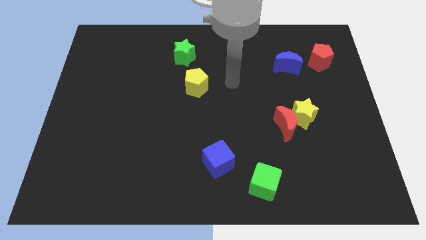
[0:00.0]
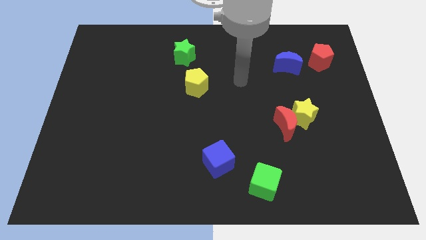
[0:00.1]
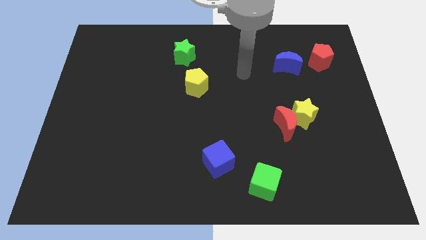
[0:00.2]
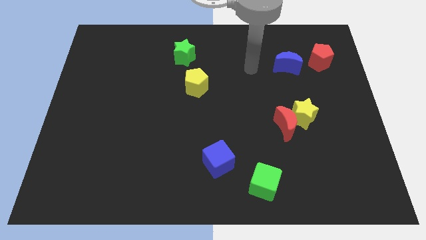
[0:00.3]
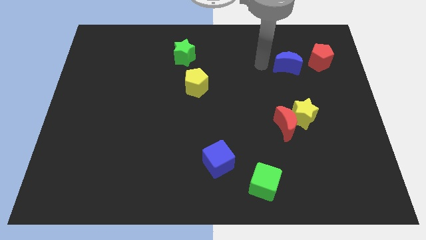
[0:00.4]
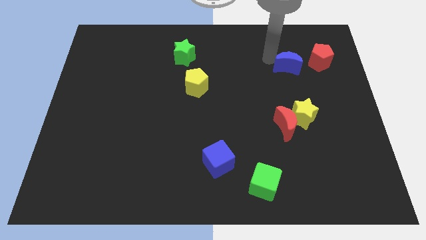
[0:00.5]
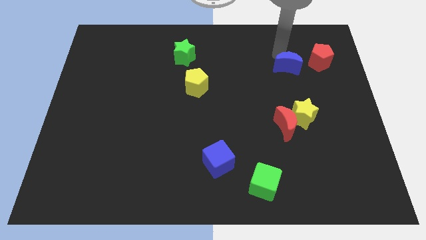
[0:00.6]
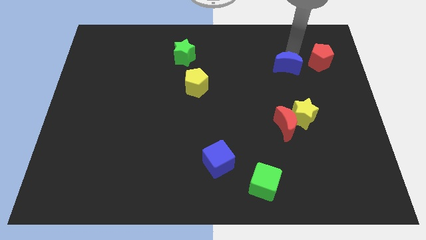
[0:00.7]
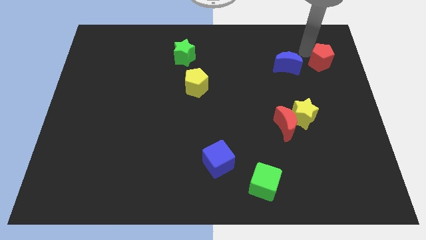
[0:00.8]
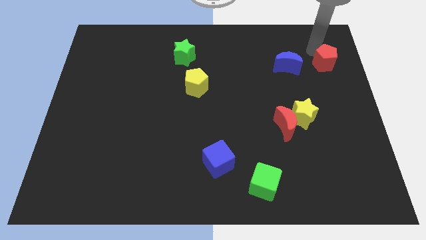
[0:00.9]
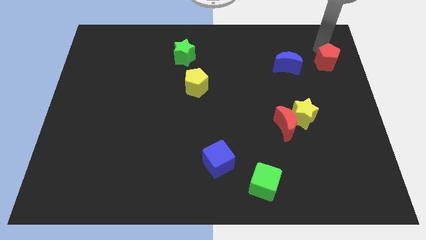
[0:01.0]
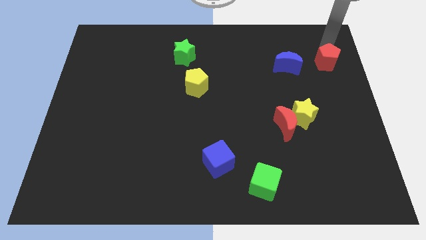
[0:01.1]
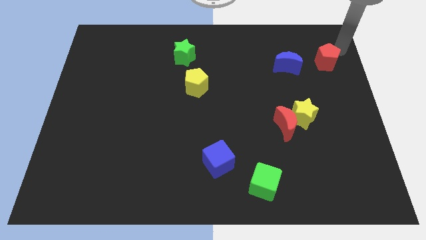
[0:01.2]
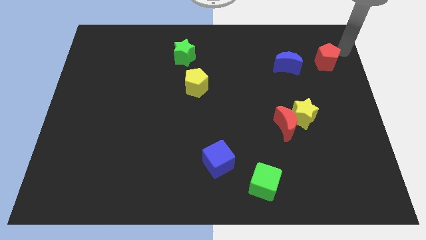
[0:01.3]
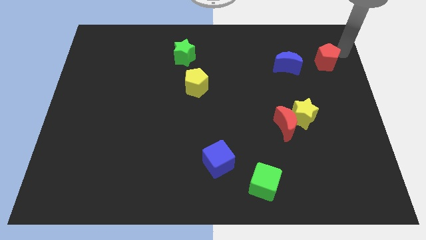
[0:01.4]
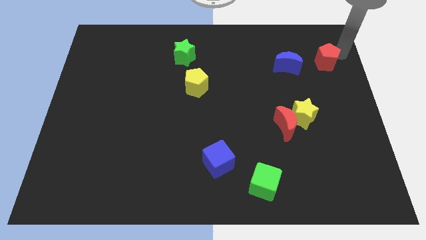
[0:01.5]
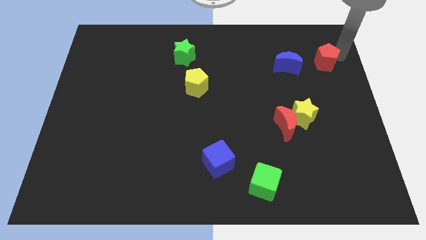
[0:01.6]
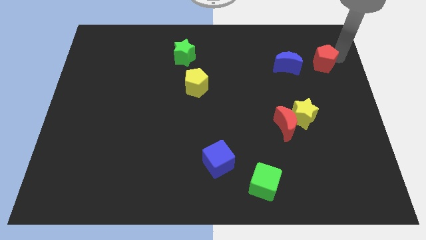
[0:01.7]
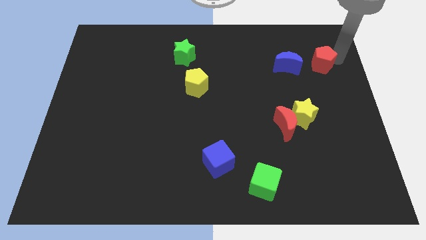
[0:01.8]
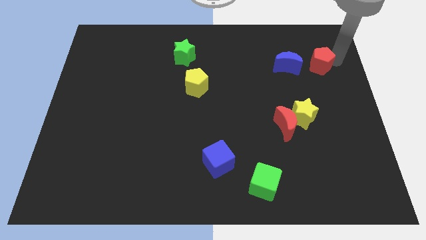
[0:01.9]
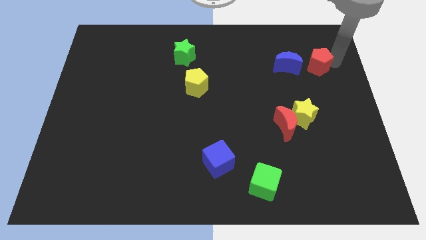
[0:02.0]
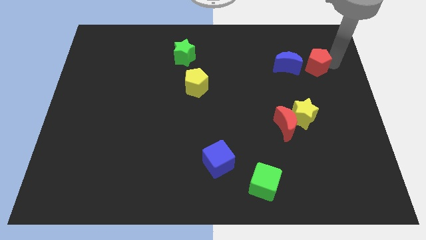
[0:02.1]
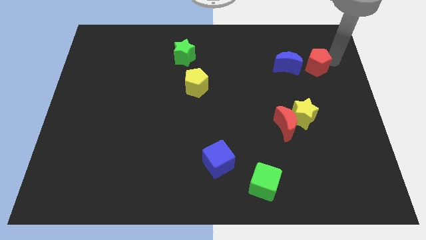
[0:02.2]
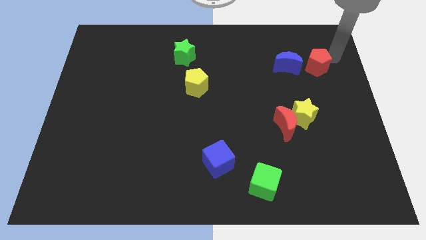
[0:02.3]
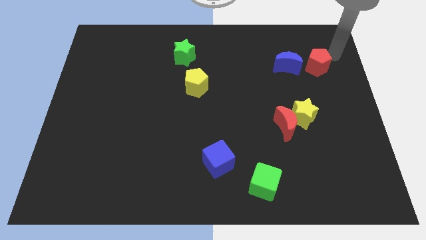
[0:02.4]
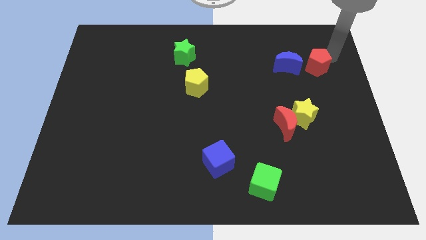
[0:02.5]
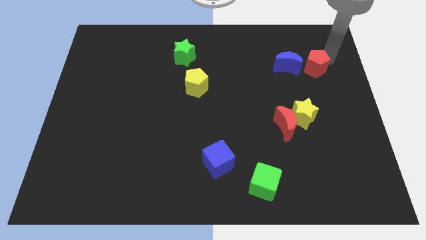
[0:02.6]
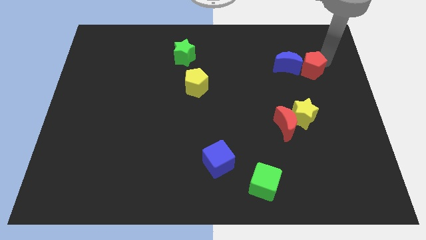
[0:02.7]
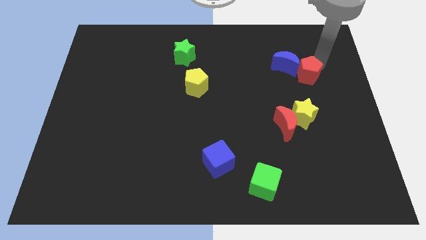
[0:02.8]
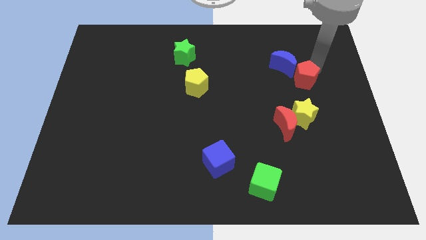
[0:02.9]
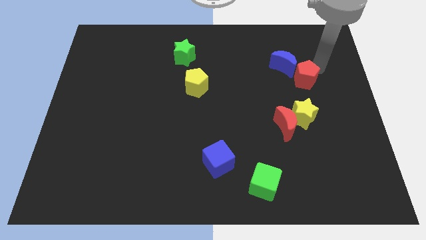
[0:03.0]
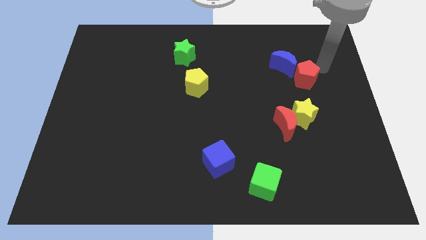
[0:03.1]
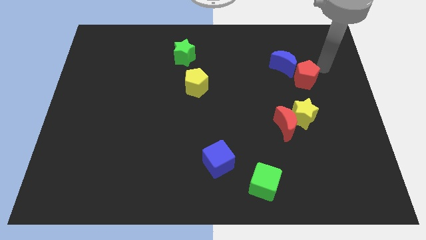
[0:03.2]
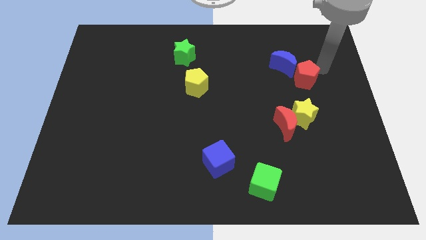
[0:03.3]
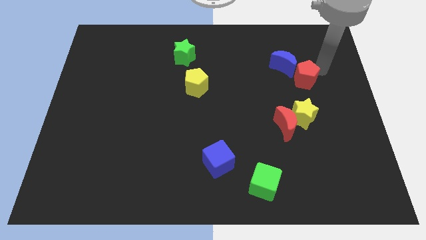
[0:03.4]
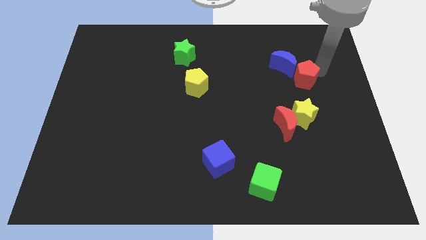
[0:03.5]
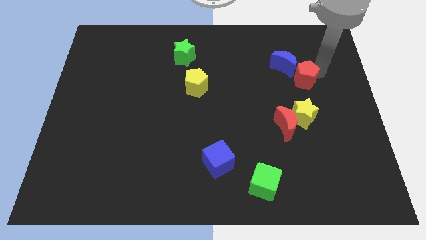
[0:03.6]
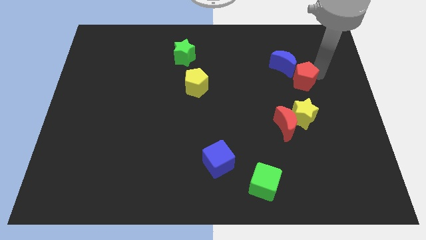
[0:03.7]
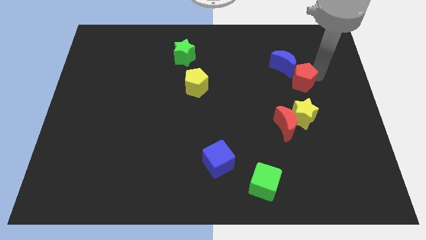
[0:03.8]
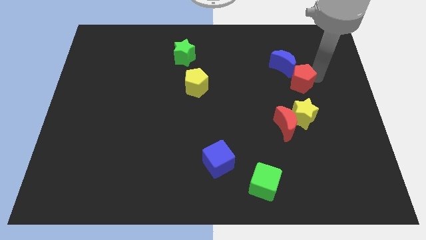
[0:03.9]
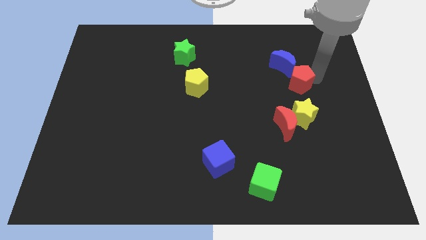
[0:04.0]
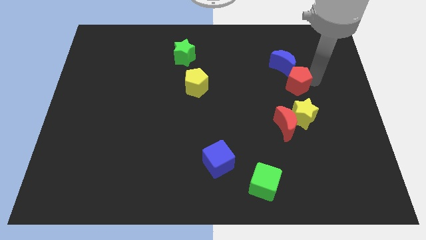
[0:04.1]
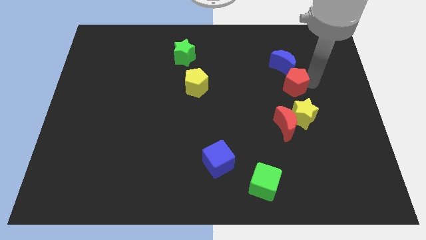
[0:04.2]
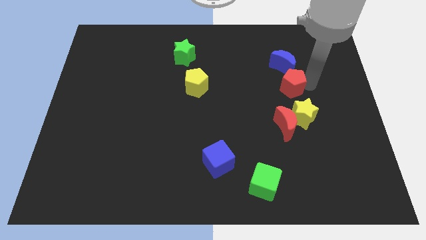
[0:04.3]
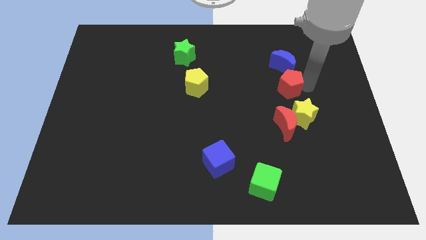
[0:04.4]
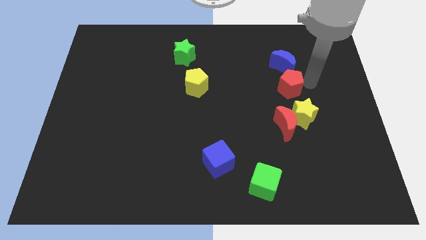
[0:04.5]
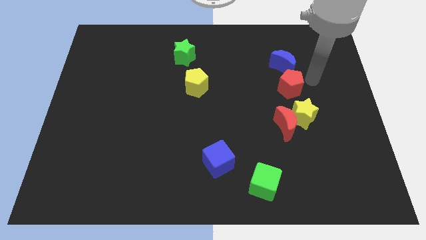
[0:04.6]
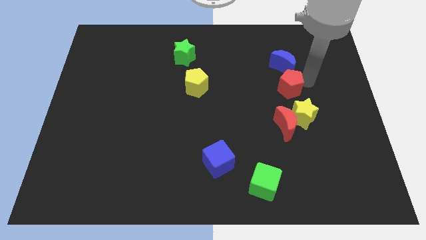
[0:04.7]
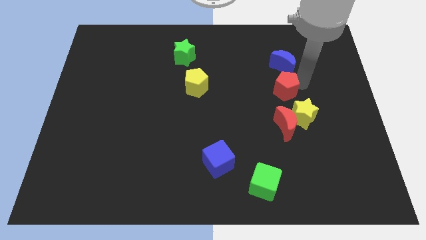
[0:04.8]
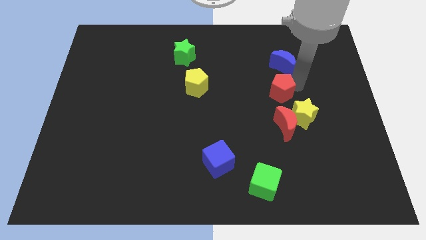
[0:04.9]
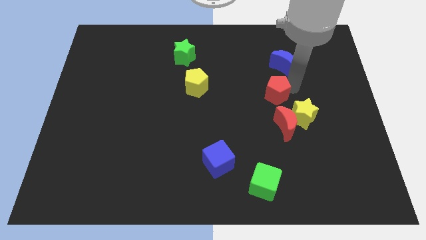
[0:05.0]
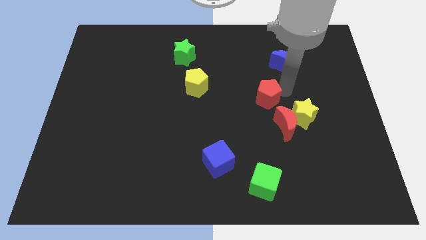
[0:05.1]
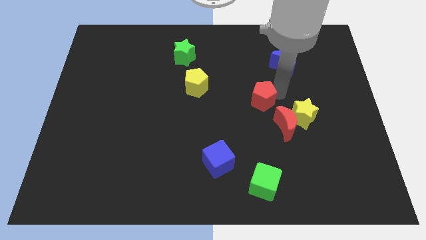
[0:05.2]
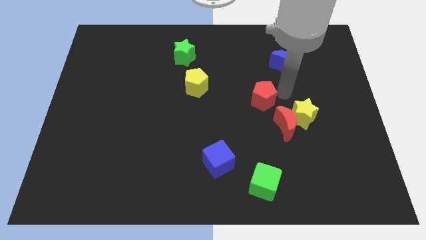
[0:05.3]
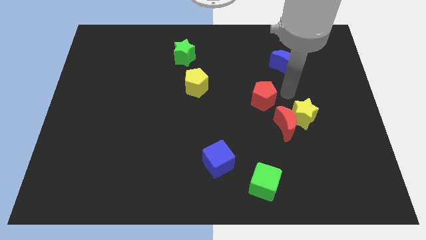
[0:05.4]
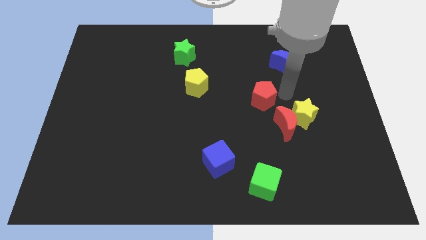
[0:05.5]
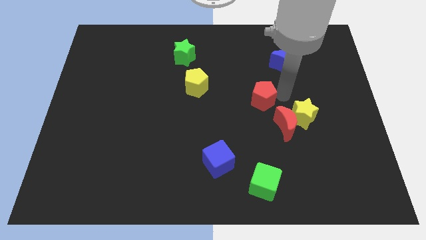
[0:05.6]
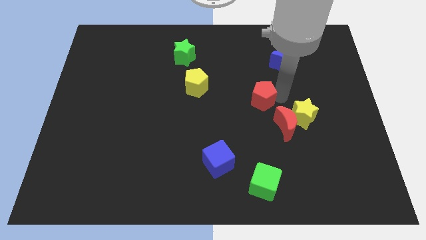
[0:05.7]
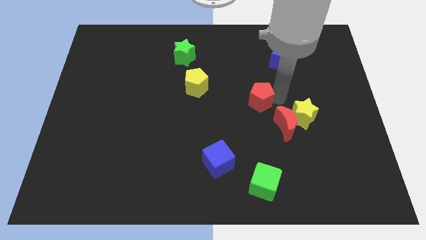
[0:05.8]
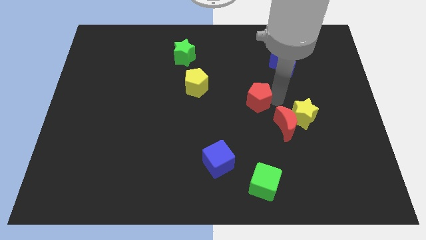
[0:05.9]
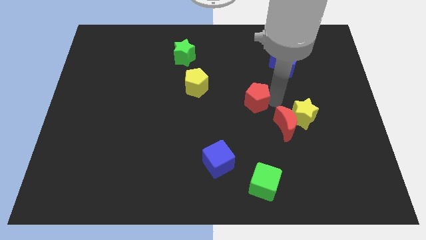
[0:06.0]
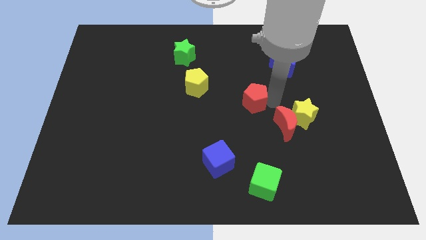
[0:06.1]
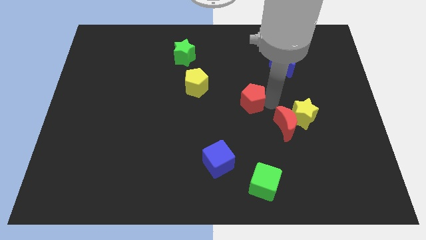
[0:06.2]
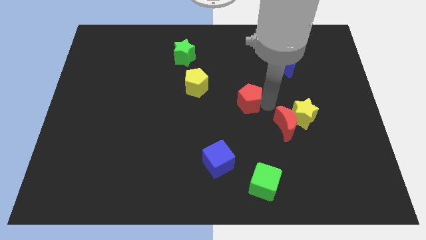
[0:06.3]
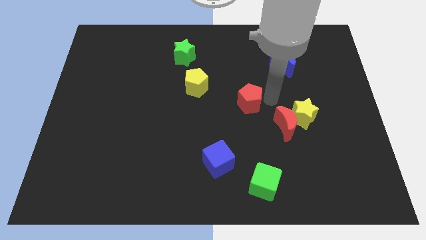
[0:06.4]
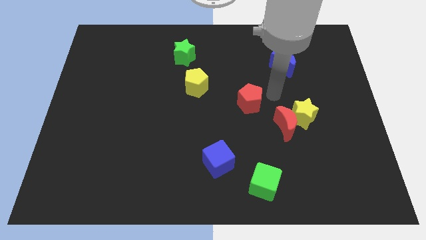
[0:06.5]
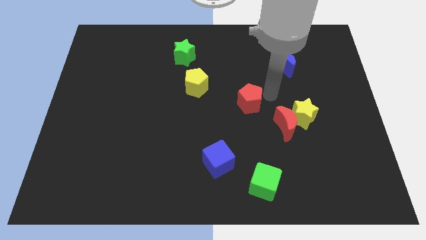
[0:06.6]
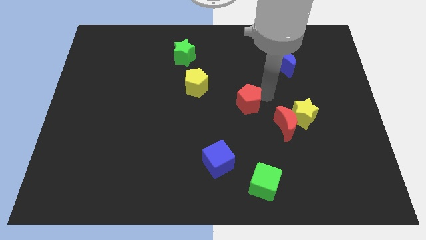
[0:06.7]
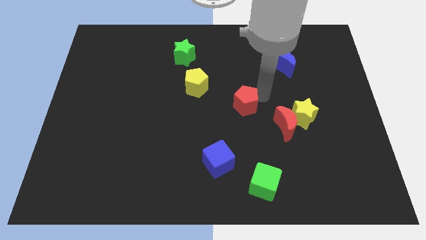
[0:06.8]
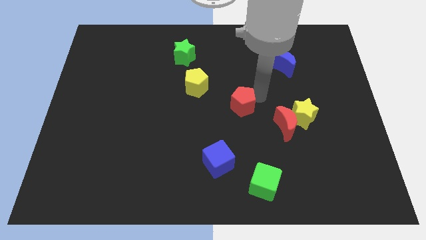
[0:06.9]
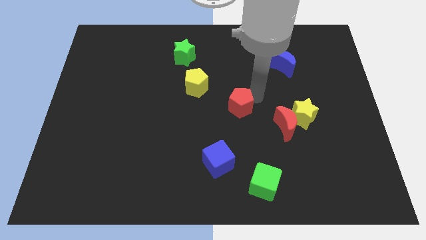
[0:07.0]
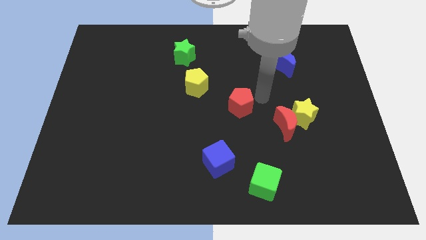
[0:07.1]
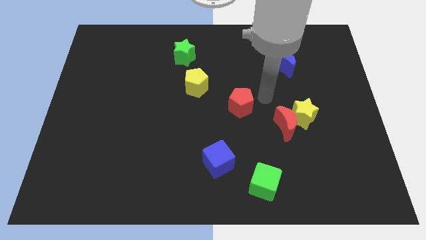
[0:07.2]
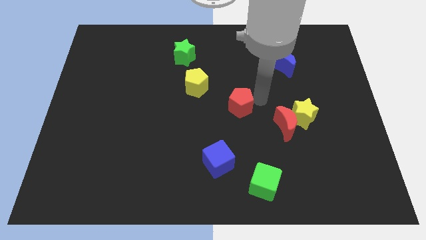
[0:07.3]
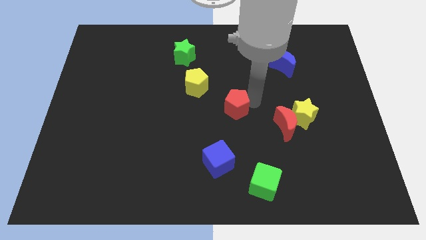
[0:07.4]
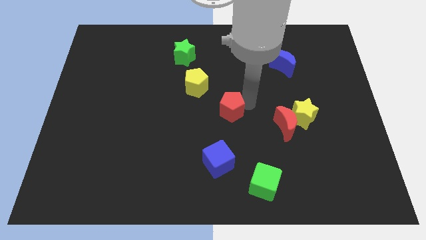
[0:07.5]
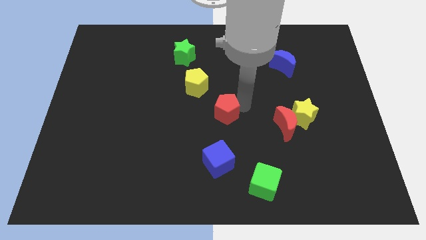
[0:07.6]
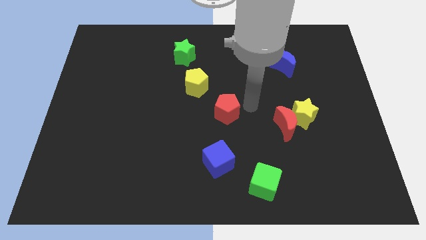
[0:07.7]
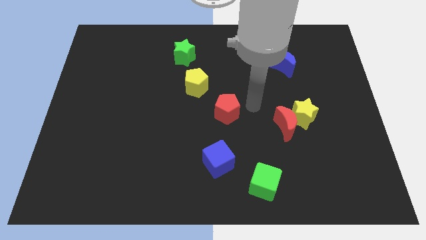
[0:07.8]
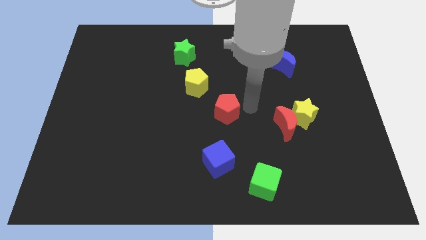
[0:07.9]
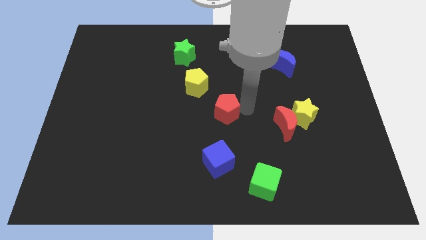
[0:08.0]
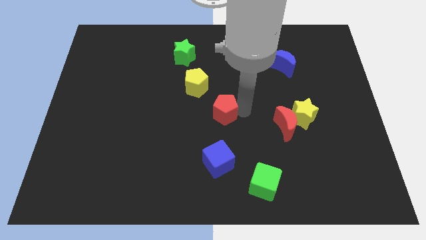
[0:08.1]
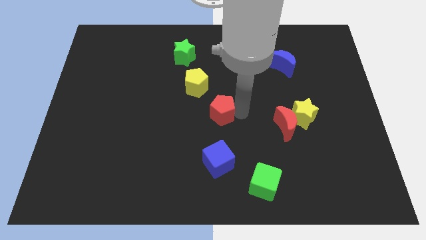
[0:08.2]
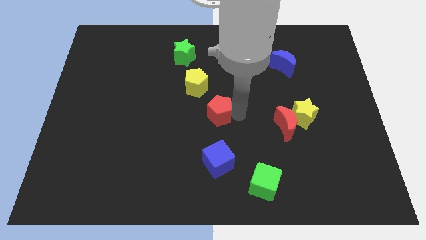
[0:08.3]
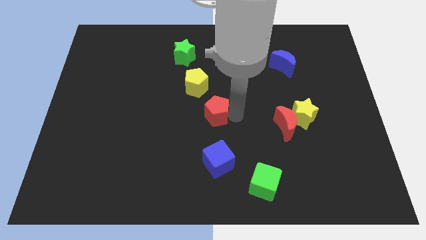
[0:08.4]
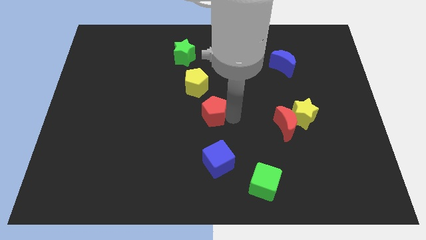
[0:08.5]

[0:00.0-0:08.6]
put the red pentagon below the yellow pentagon
